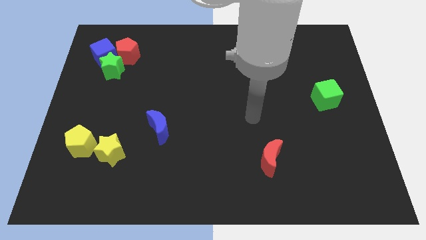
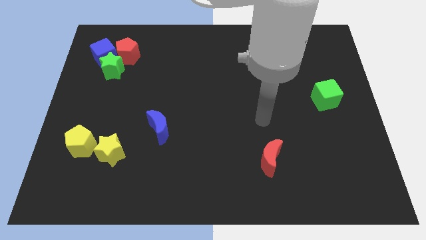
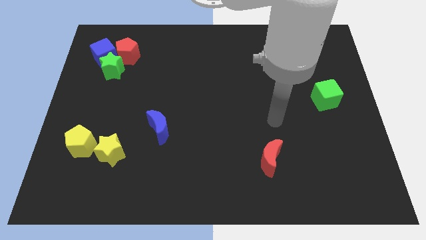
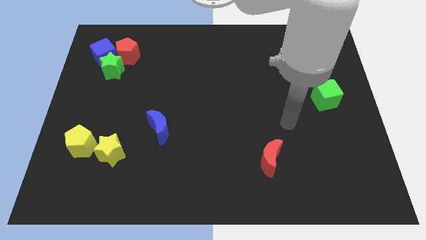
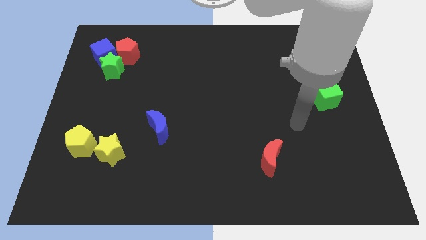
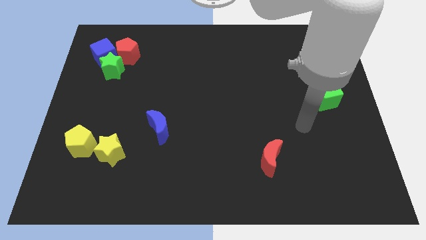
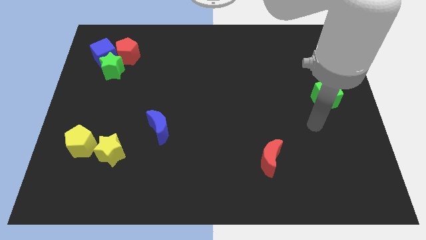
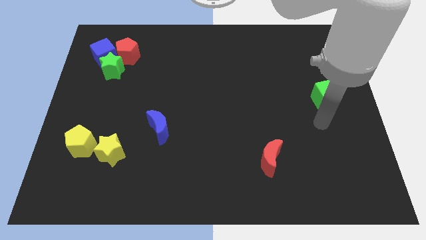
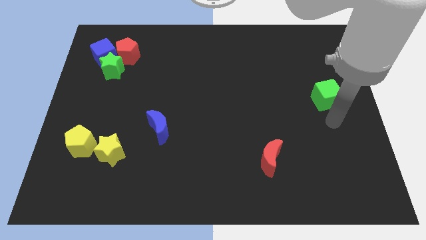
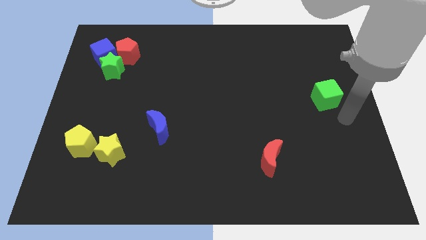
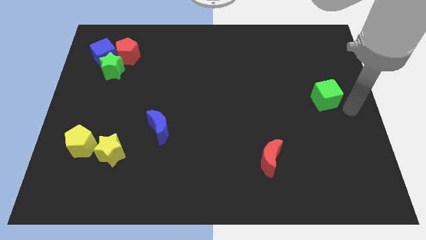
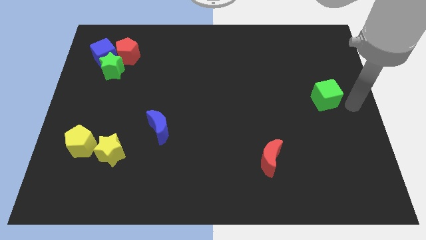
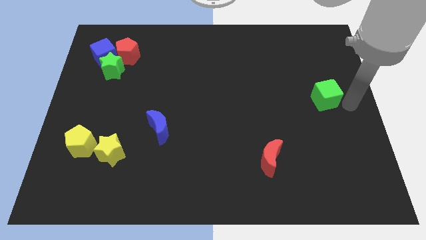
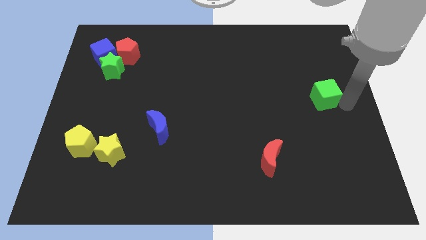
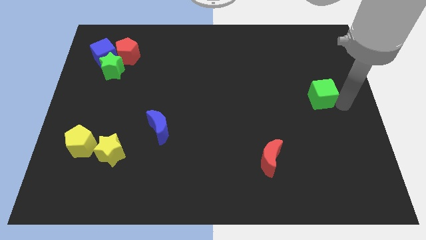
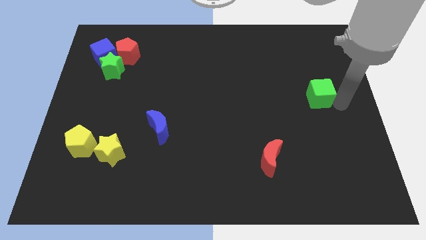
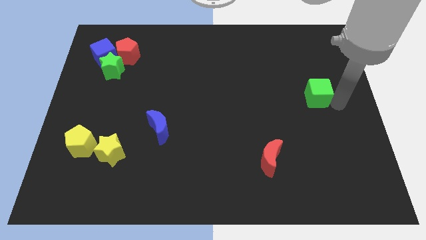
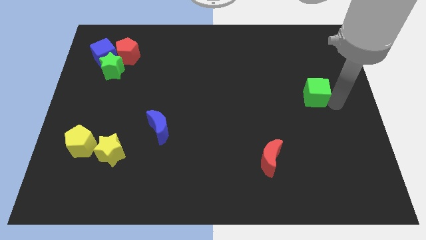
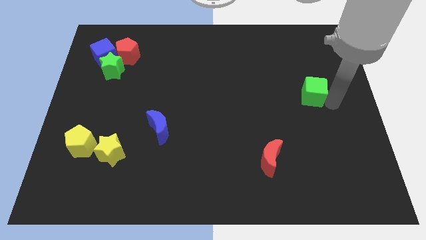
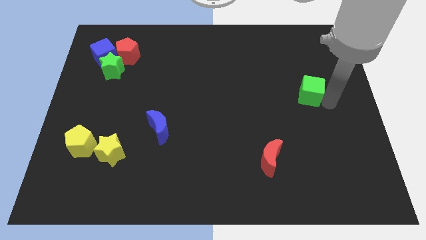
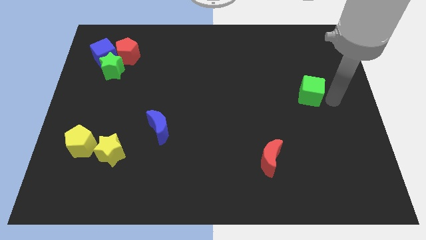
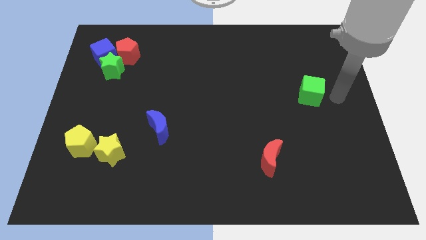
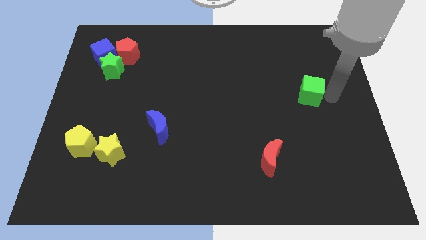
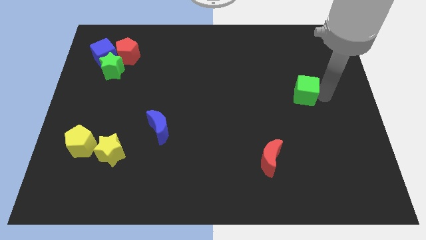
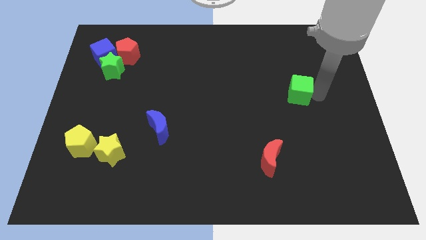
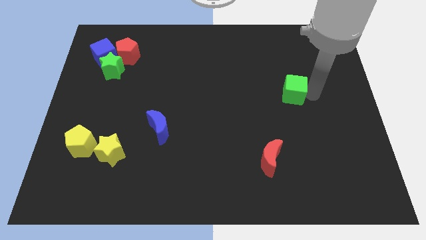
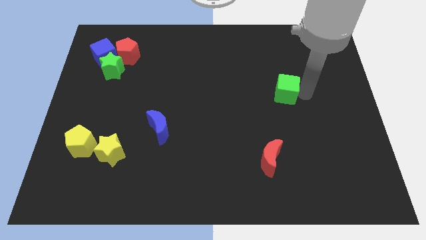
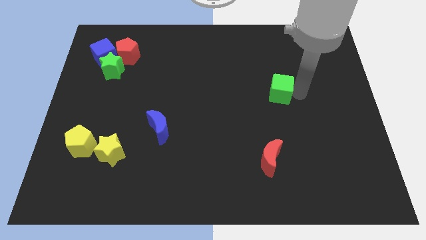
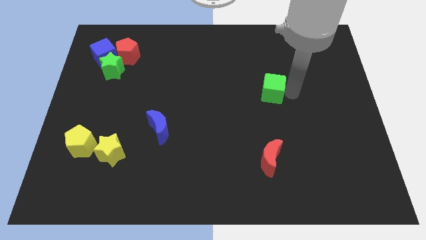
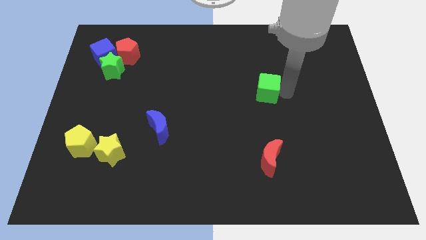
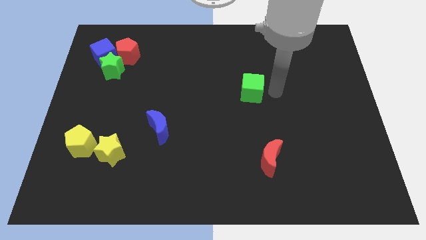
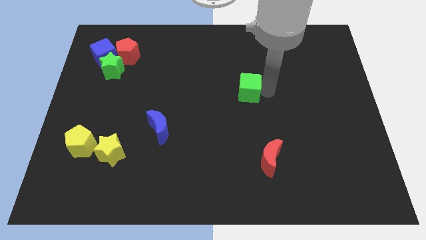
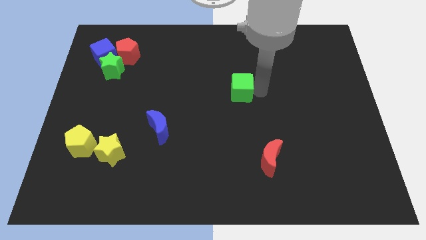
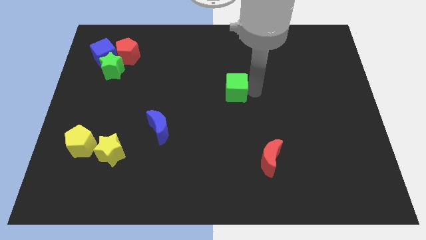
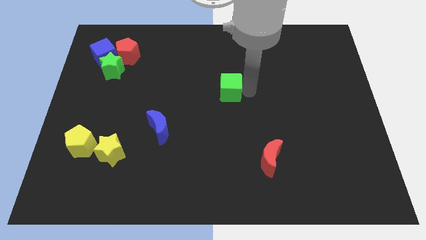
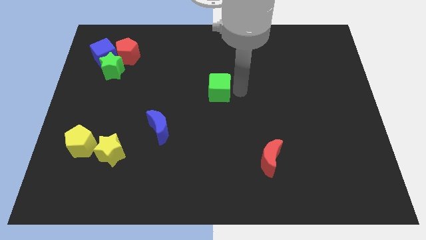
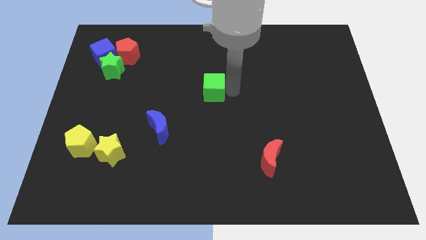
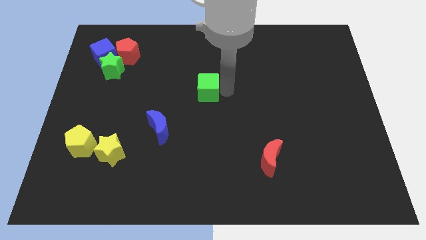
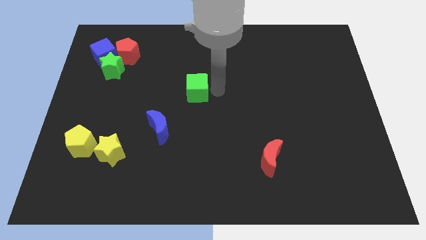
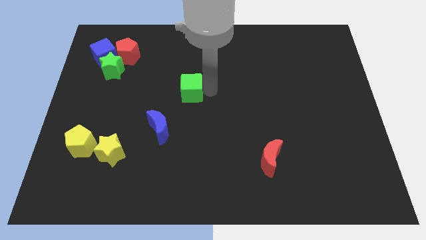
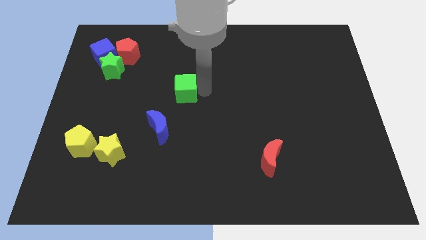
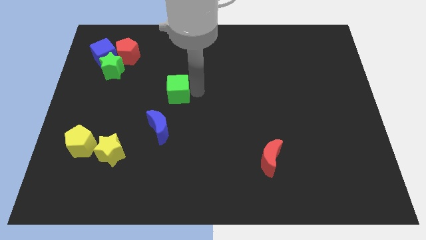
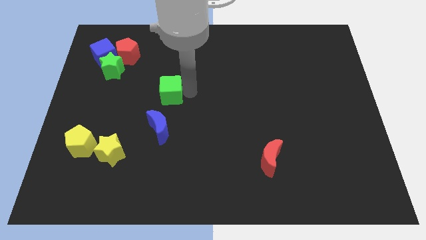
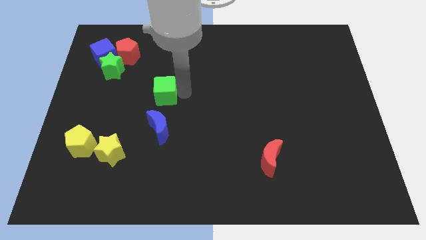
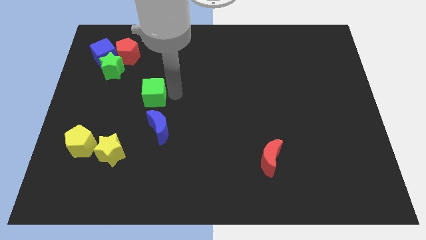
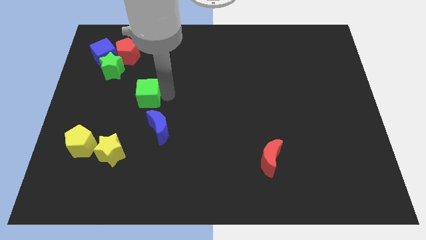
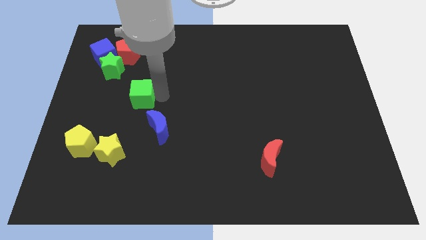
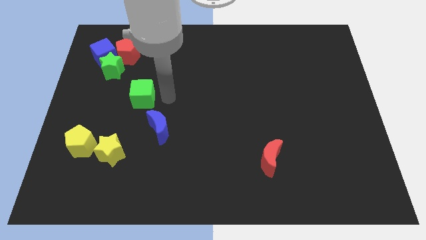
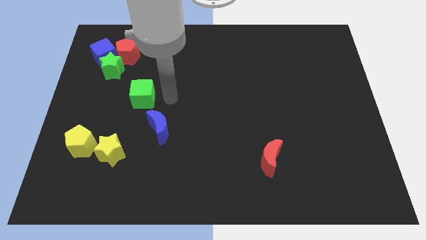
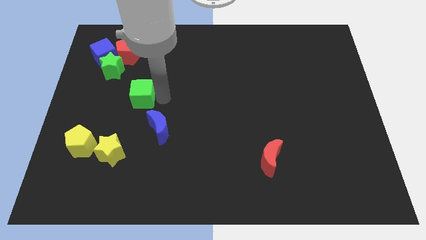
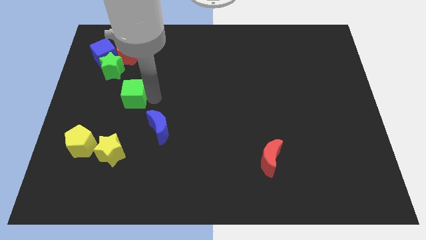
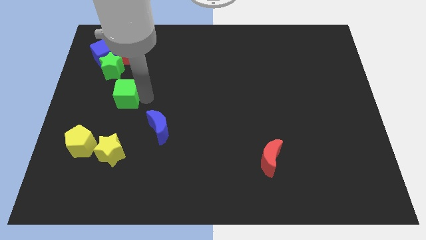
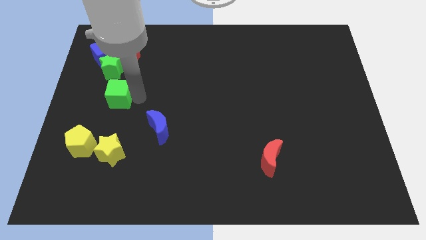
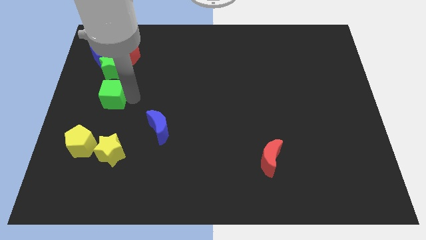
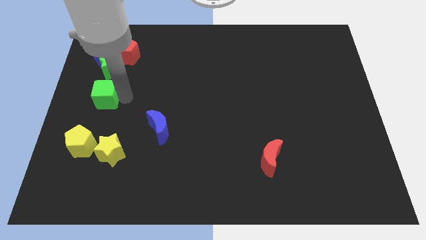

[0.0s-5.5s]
slide the green cube to the left side

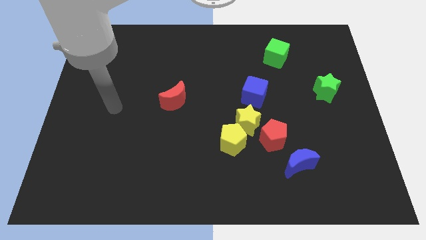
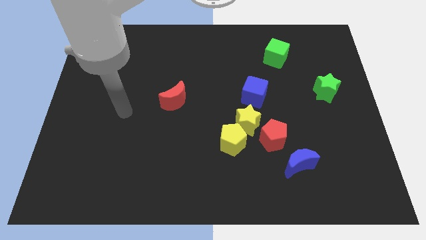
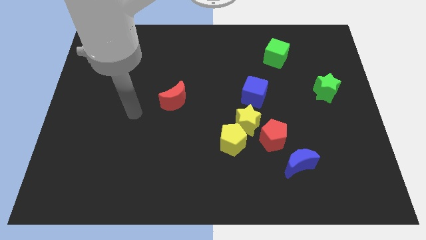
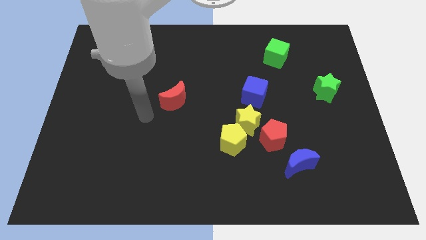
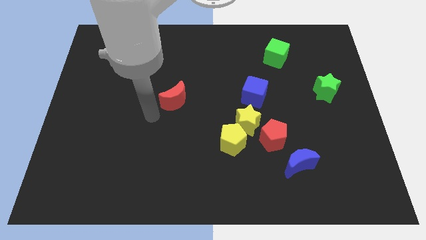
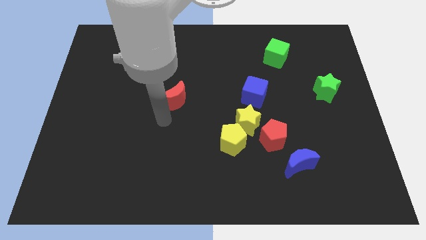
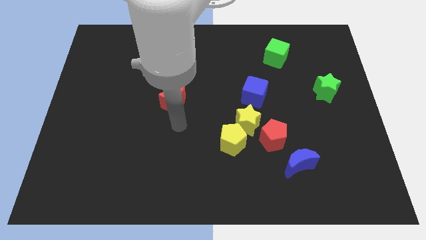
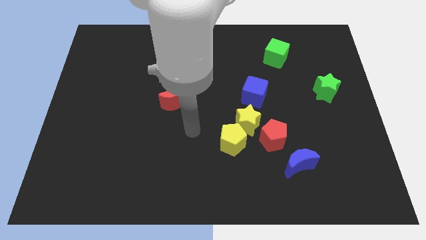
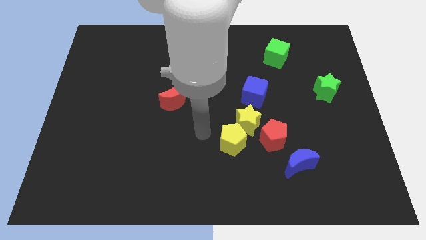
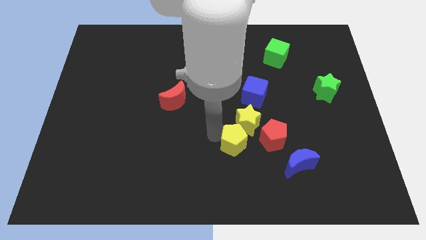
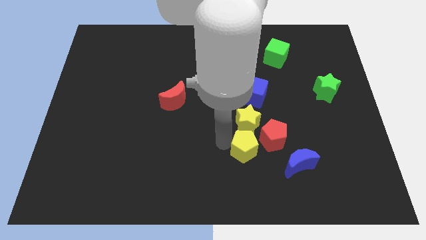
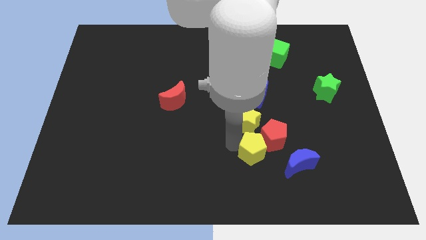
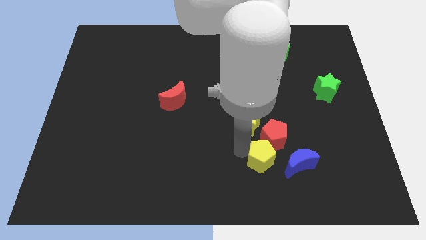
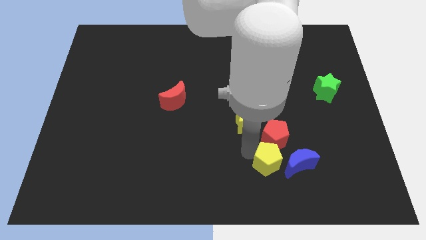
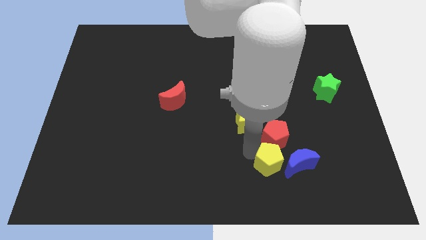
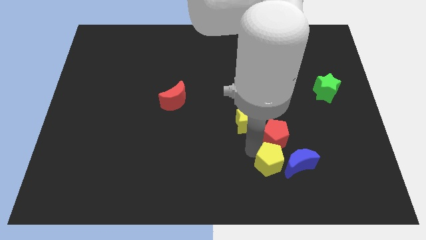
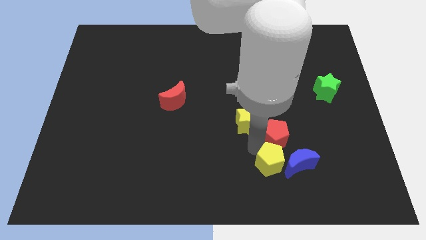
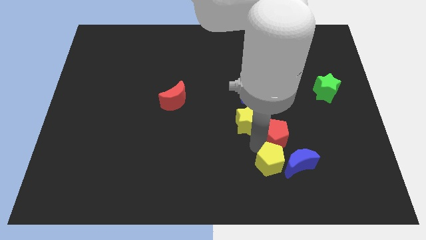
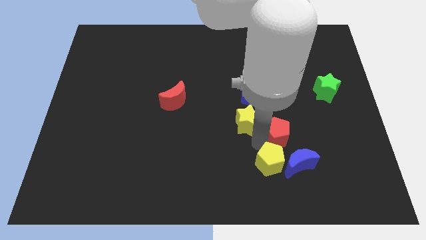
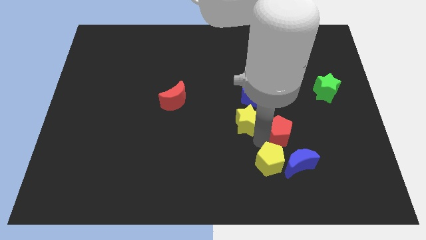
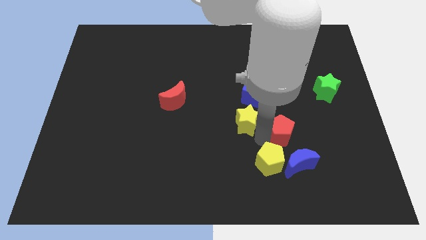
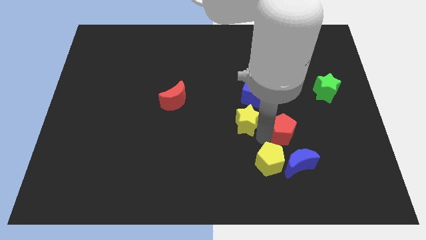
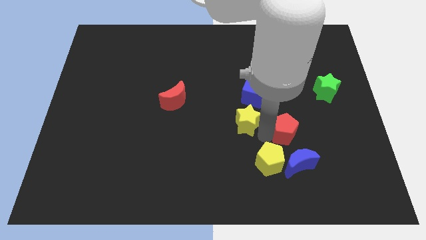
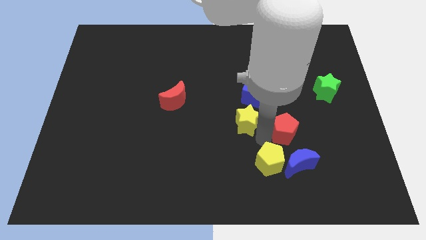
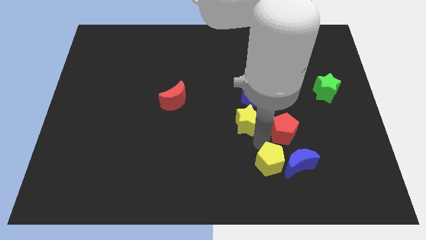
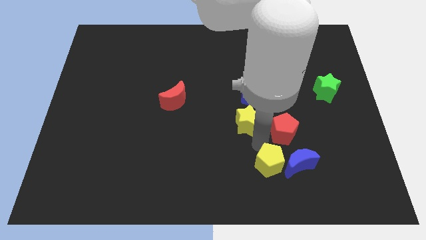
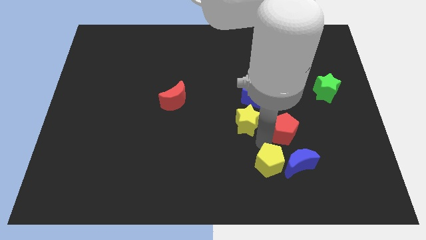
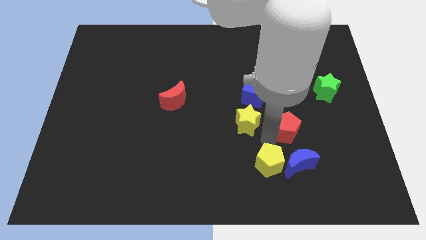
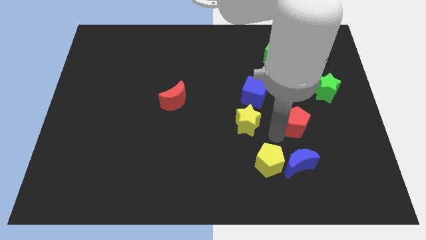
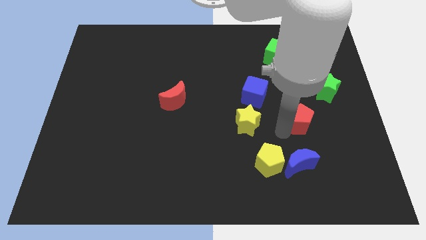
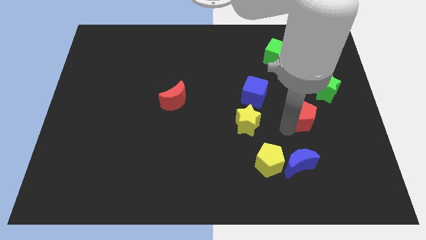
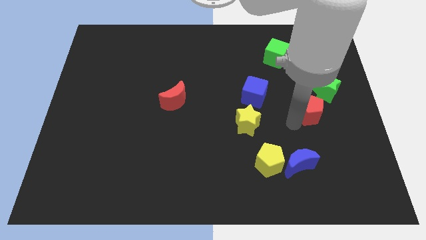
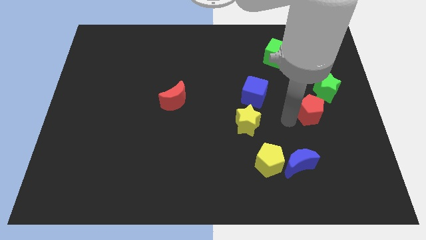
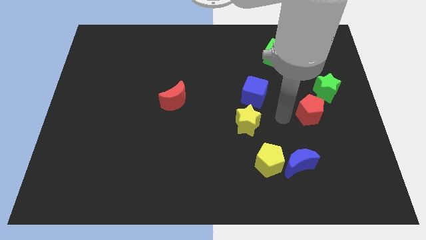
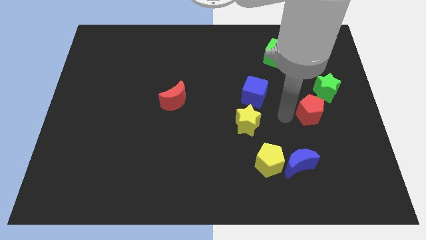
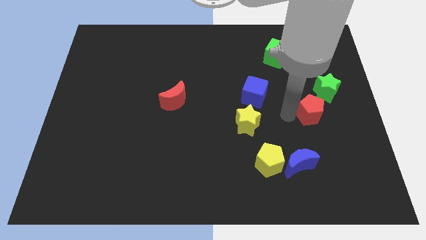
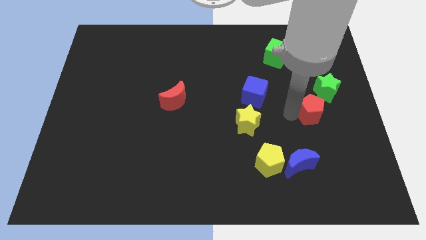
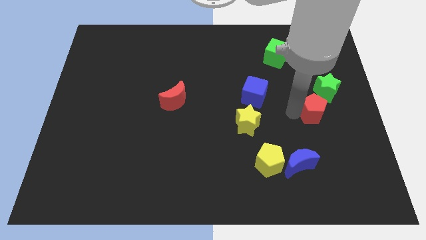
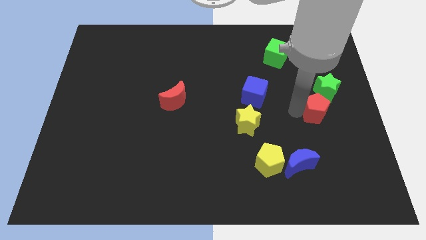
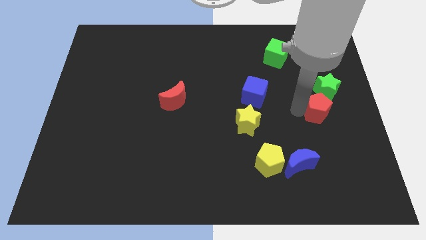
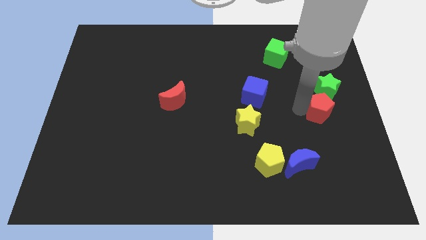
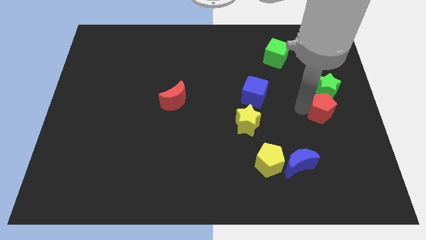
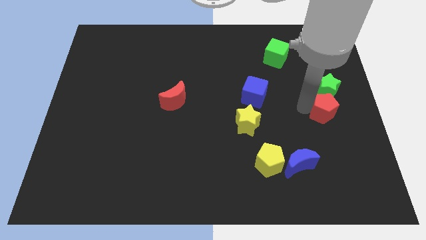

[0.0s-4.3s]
move the red pentagon to the right side
